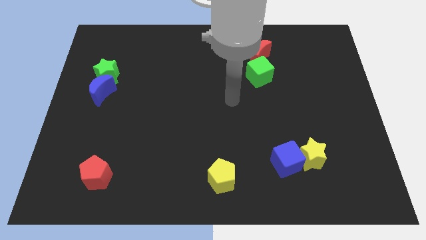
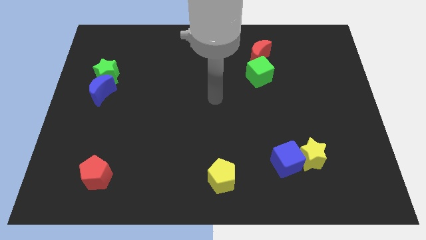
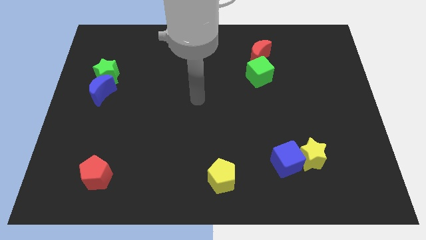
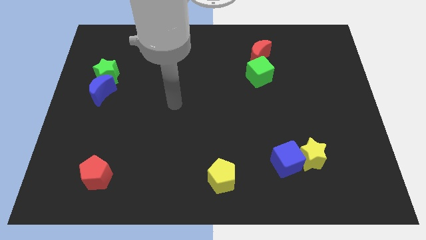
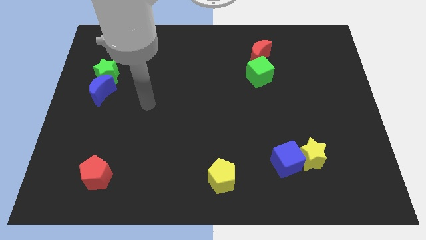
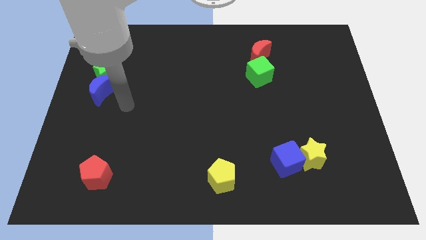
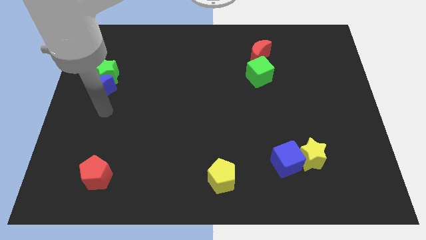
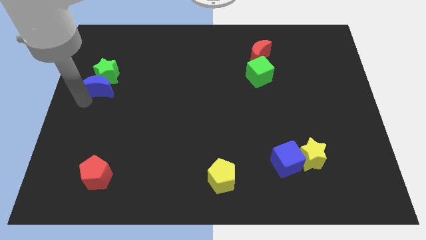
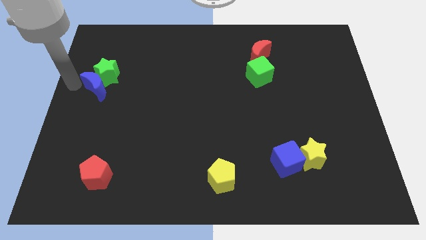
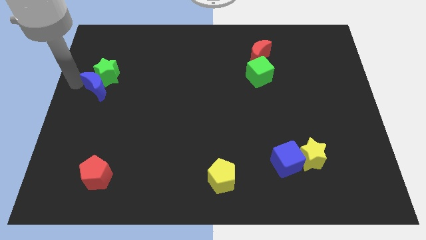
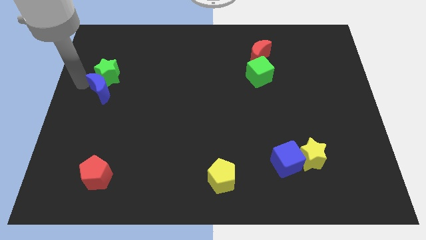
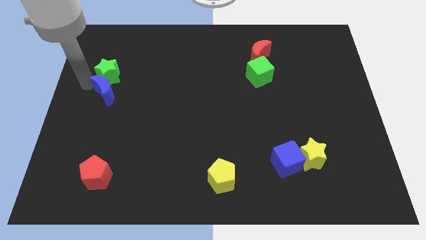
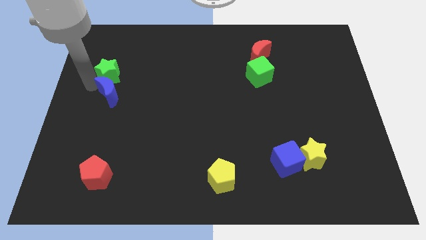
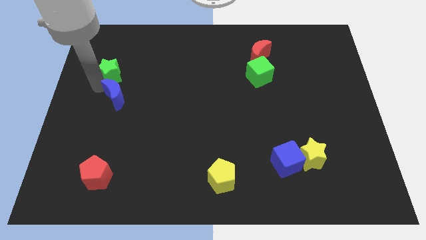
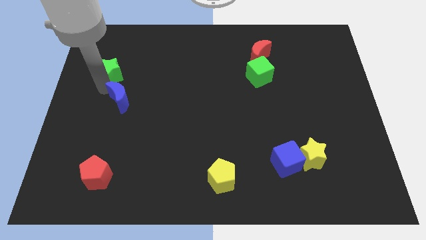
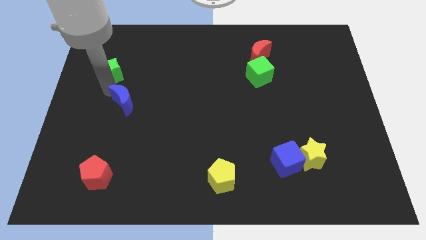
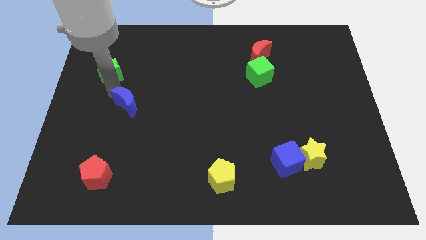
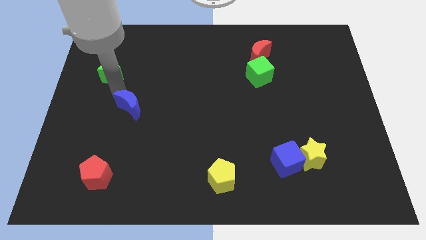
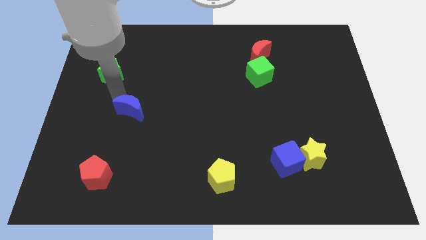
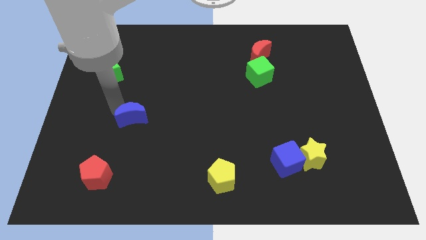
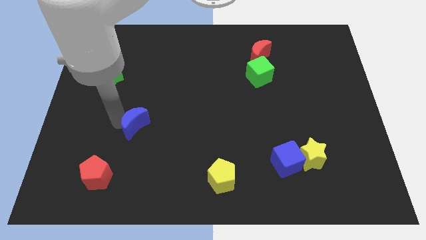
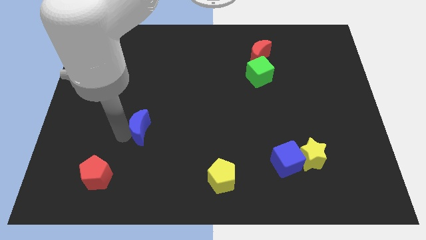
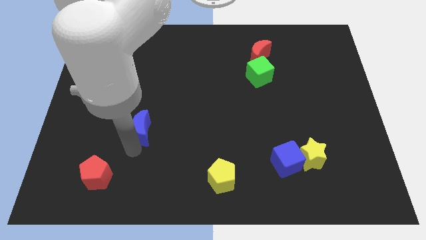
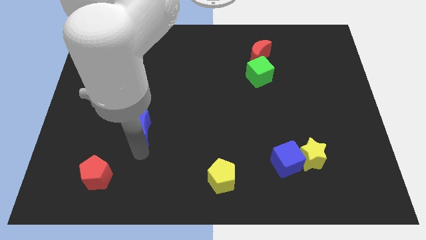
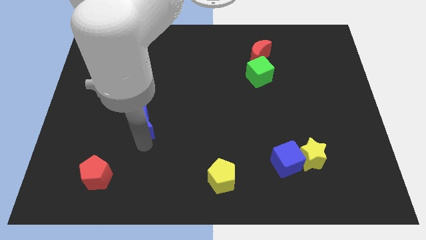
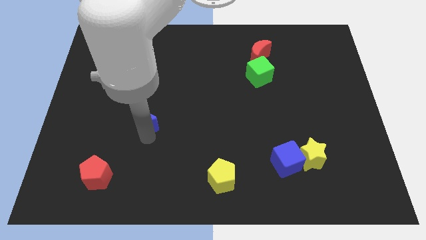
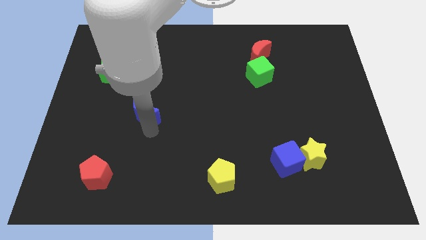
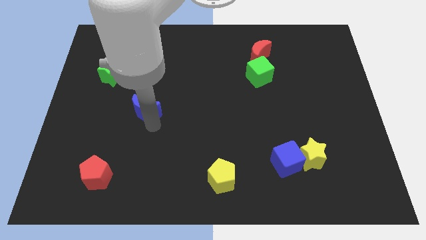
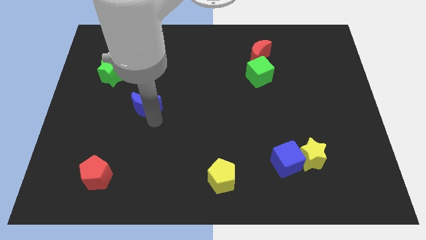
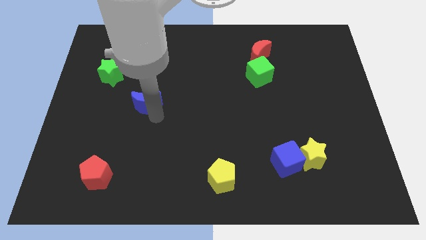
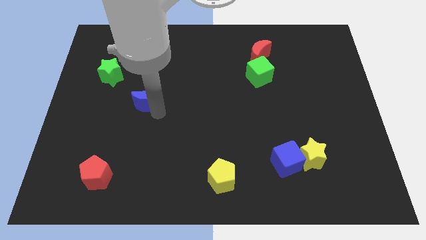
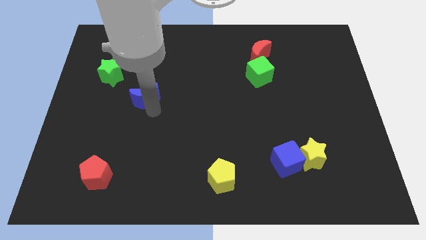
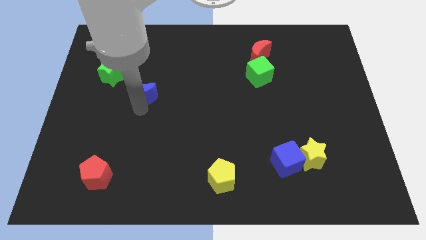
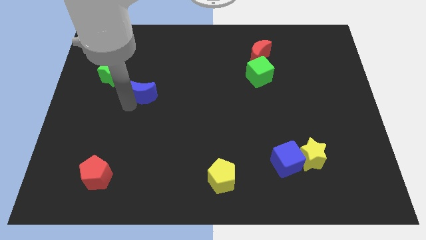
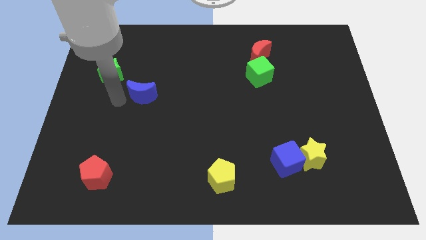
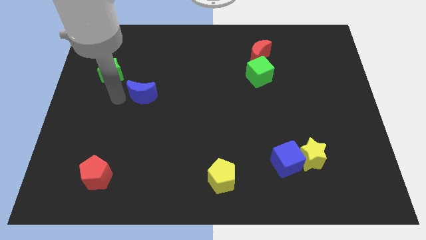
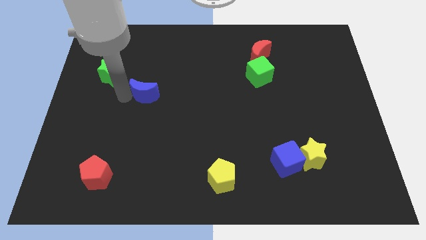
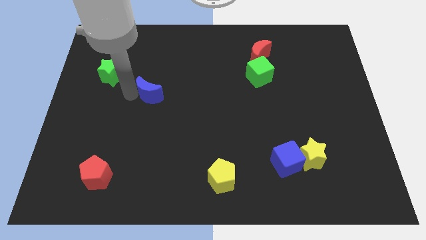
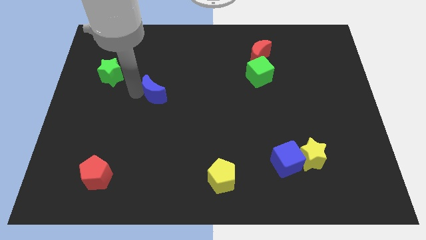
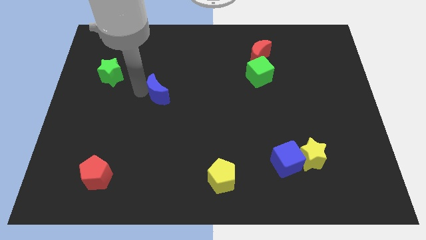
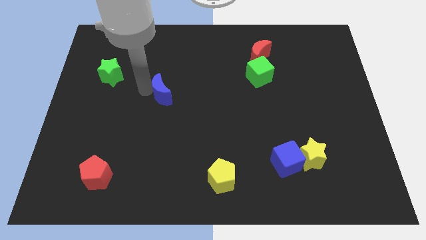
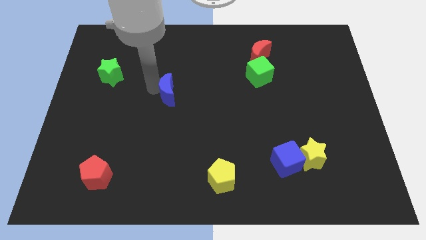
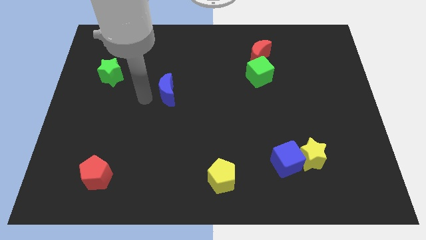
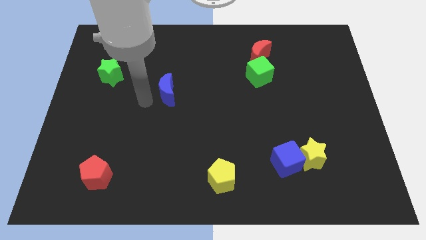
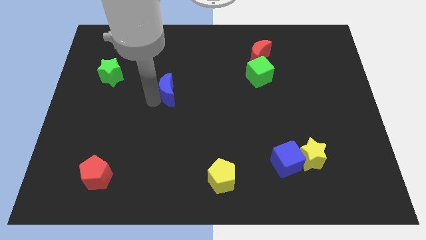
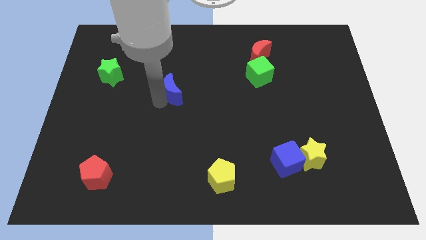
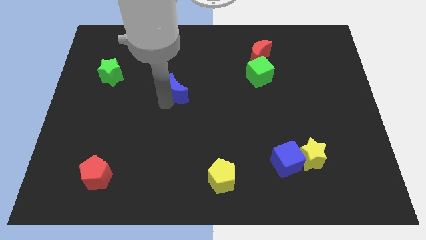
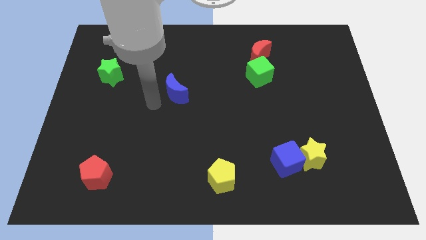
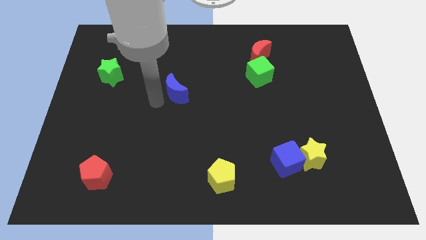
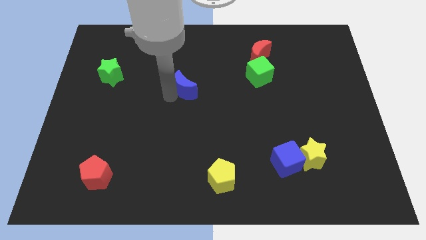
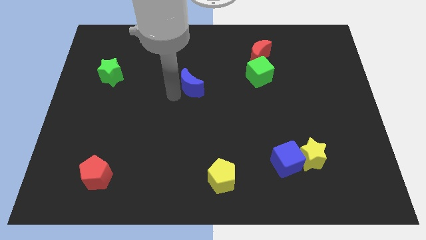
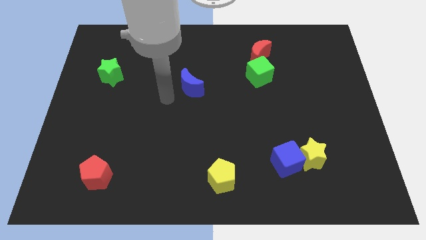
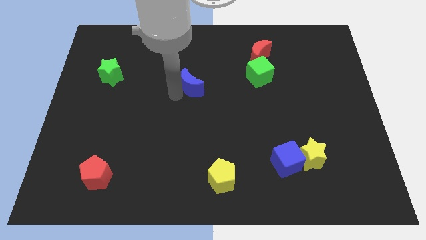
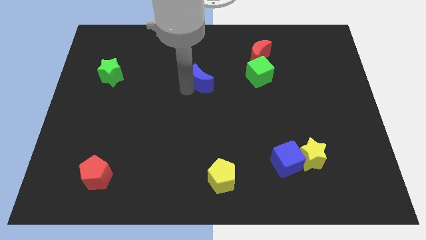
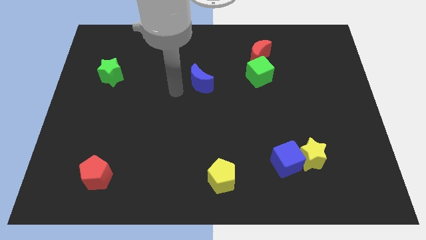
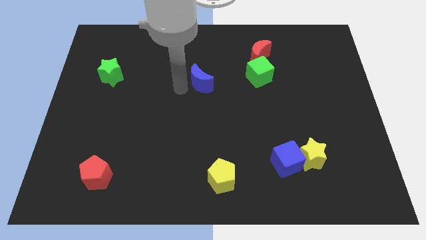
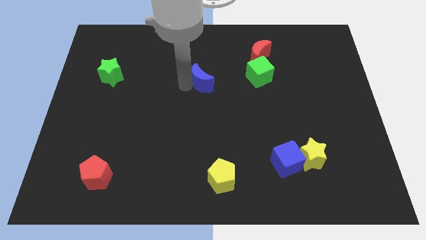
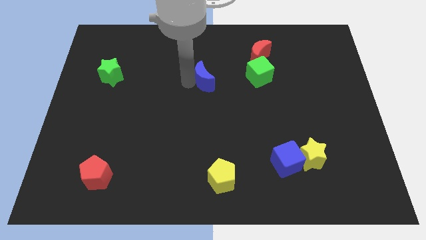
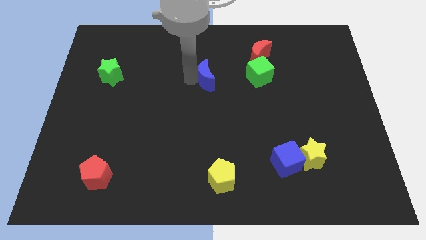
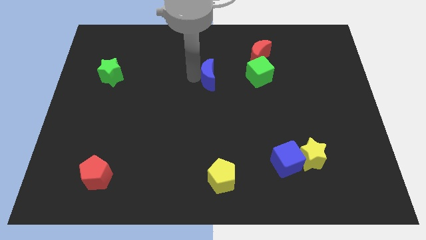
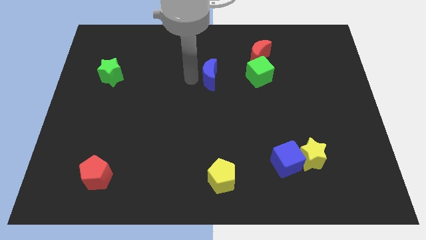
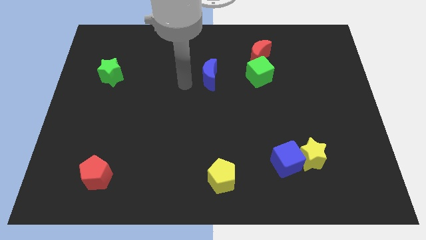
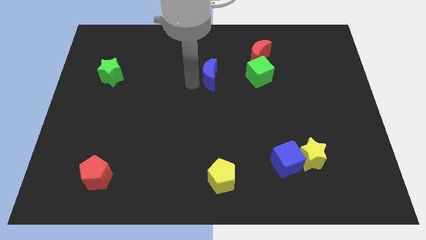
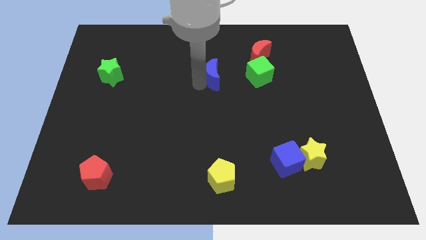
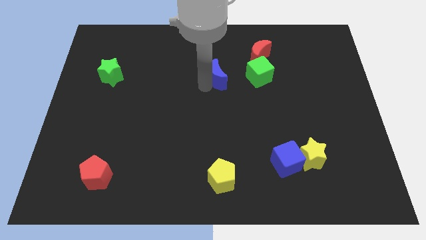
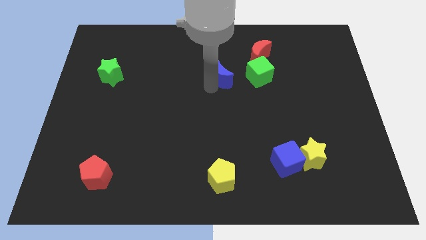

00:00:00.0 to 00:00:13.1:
put the blue moon to the bottom left of the red moon
